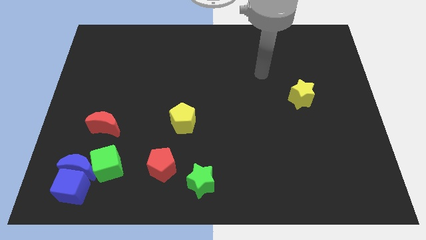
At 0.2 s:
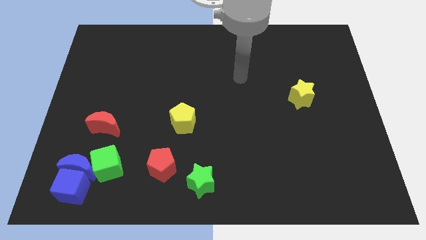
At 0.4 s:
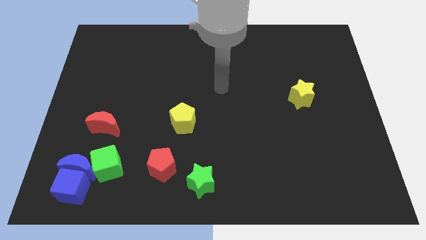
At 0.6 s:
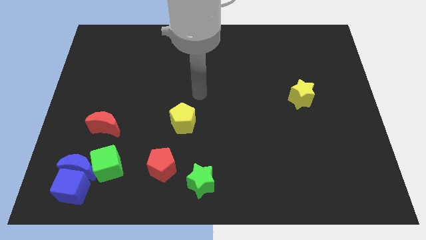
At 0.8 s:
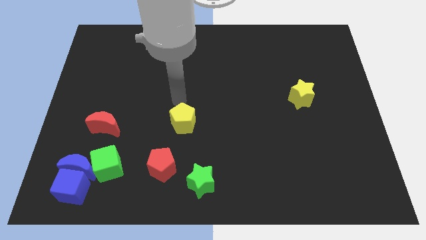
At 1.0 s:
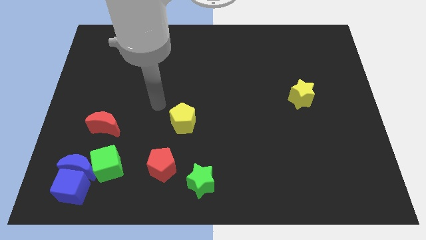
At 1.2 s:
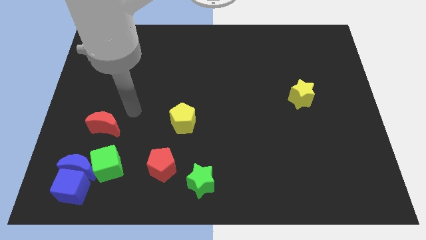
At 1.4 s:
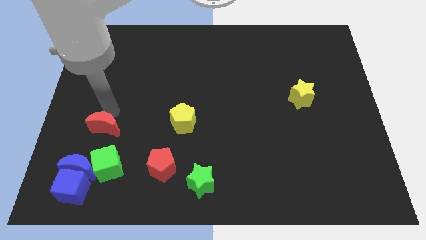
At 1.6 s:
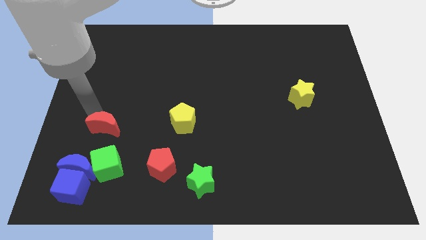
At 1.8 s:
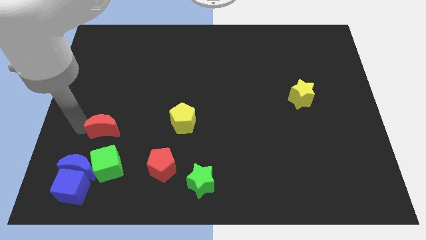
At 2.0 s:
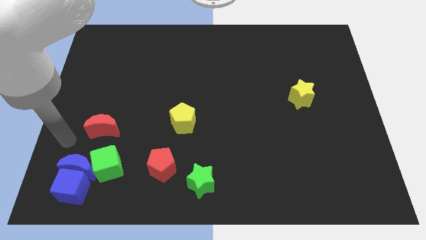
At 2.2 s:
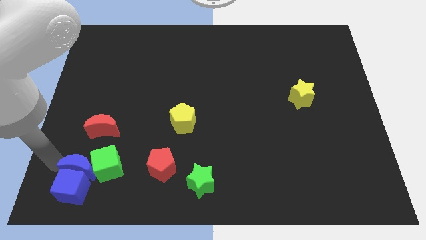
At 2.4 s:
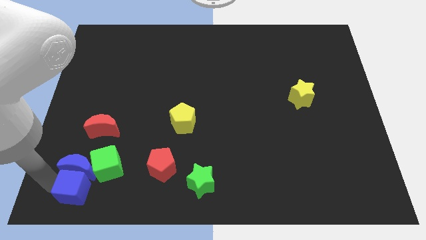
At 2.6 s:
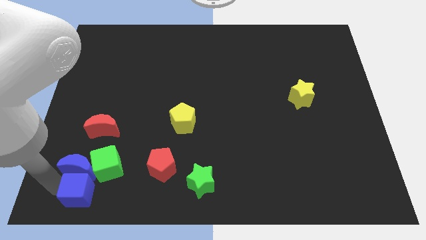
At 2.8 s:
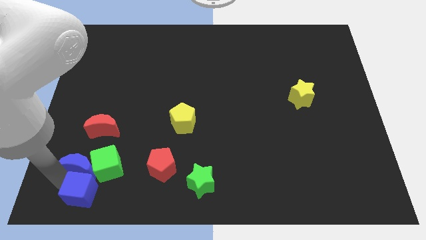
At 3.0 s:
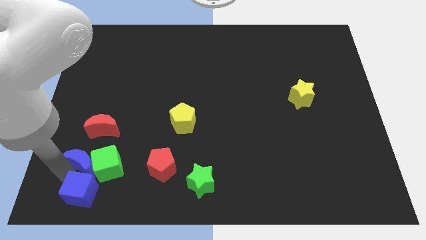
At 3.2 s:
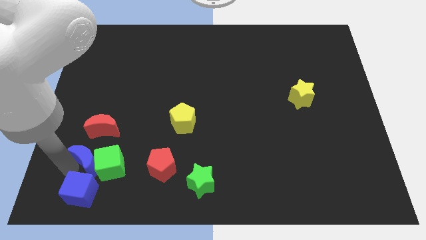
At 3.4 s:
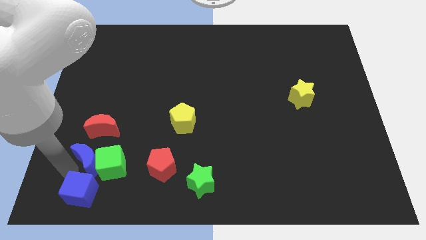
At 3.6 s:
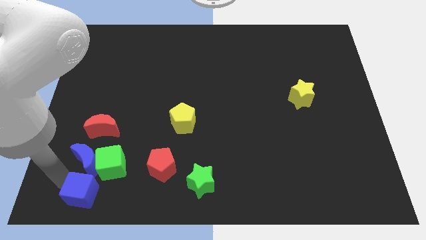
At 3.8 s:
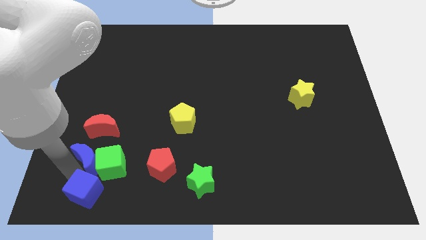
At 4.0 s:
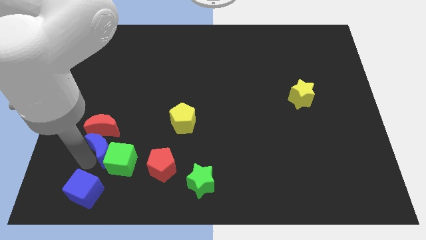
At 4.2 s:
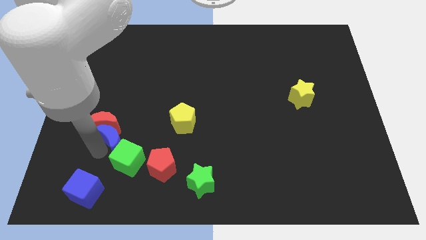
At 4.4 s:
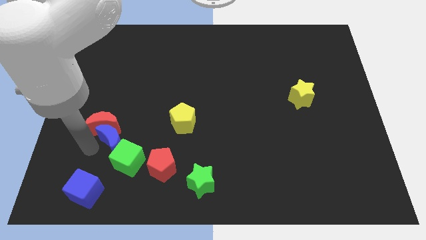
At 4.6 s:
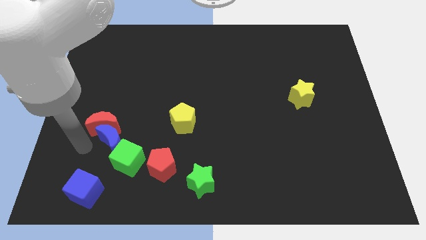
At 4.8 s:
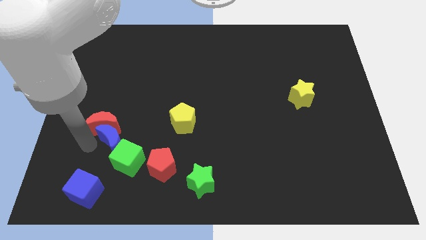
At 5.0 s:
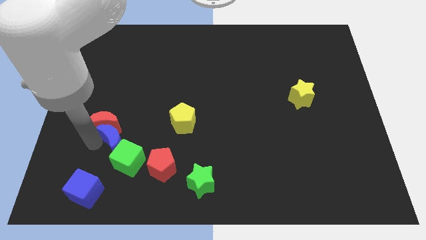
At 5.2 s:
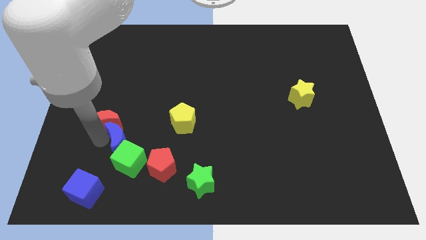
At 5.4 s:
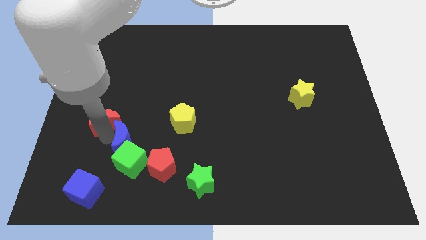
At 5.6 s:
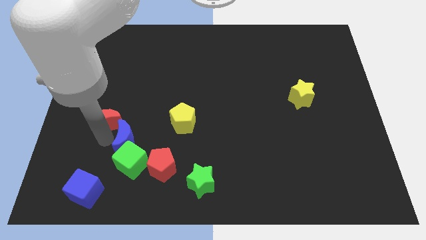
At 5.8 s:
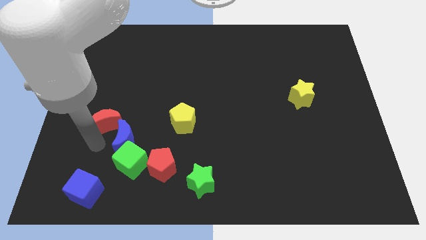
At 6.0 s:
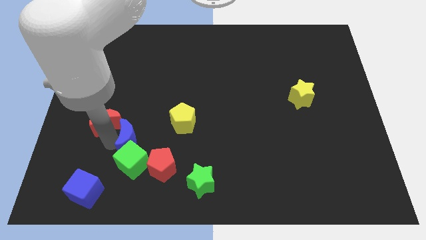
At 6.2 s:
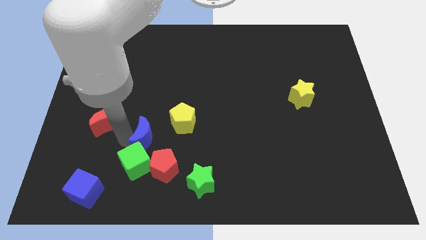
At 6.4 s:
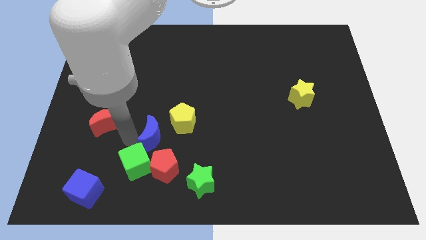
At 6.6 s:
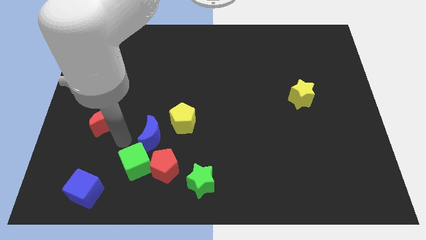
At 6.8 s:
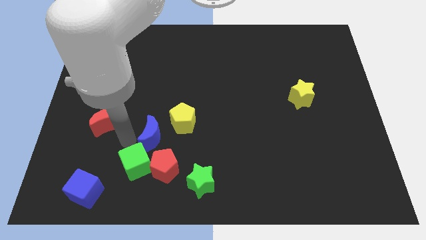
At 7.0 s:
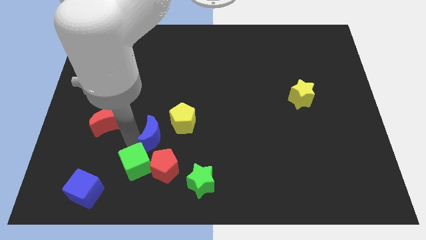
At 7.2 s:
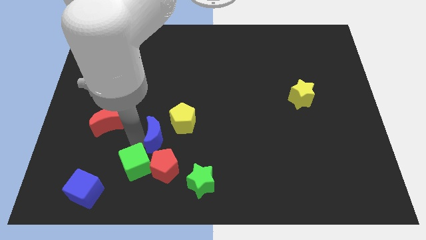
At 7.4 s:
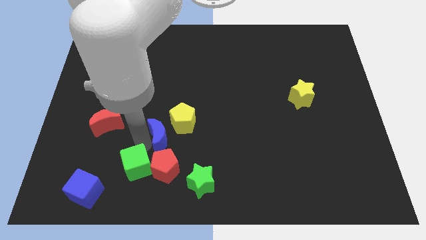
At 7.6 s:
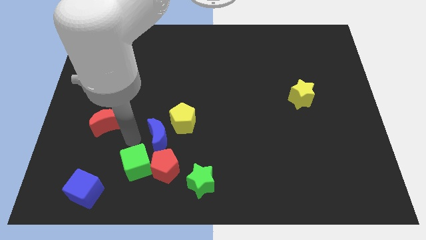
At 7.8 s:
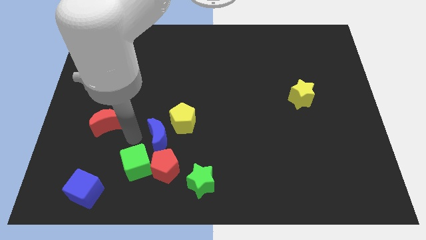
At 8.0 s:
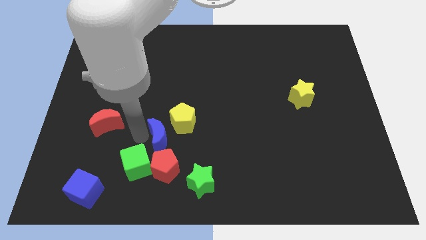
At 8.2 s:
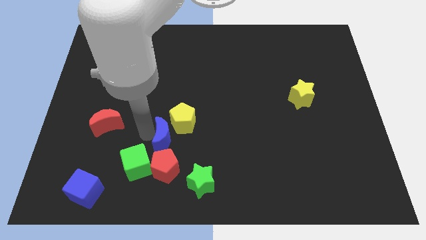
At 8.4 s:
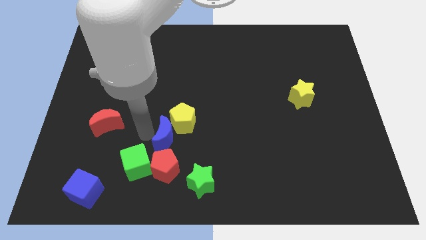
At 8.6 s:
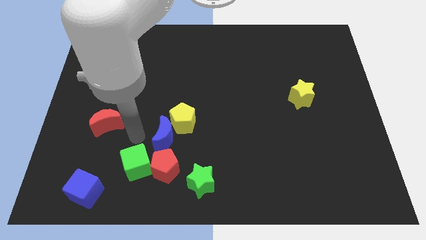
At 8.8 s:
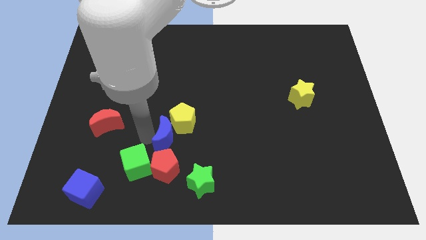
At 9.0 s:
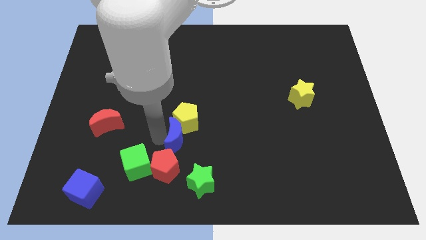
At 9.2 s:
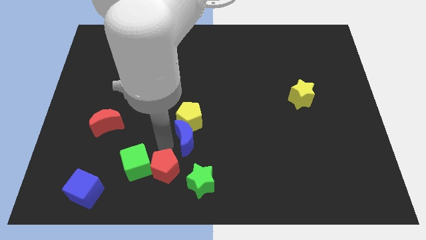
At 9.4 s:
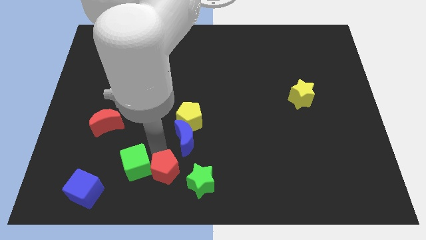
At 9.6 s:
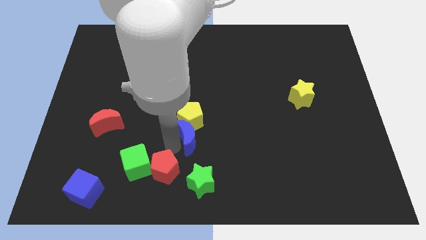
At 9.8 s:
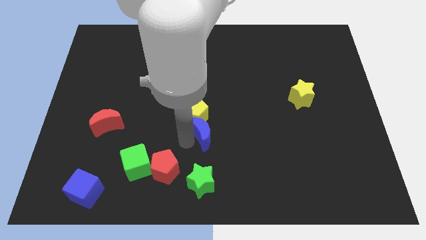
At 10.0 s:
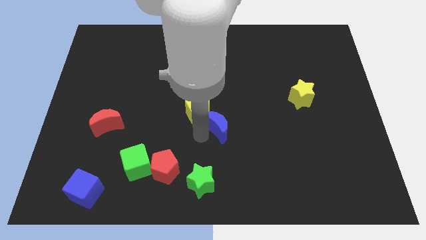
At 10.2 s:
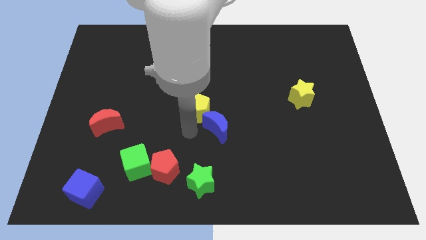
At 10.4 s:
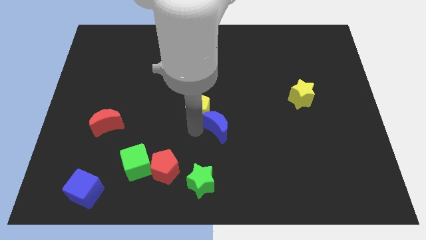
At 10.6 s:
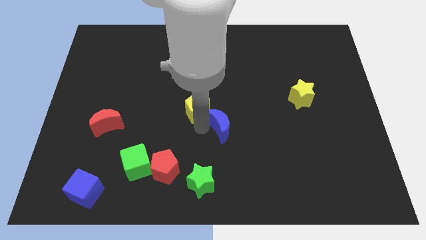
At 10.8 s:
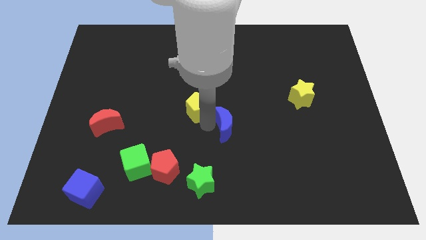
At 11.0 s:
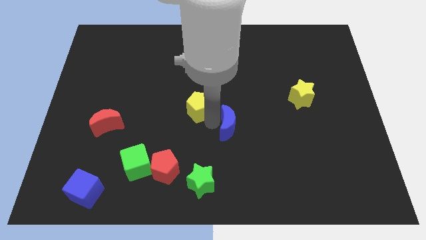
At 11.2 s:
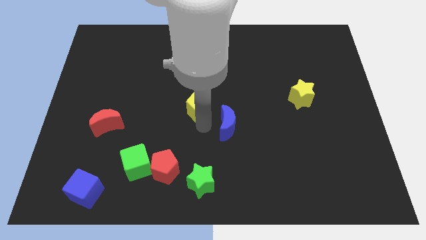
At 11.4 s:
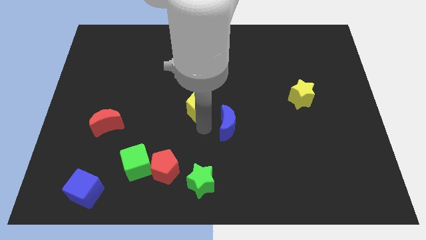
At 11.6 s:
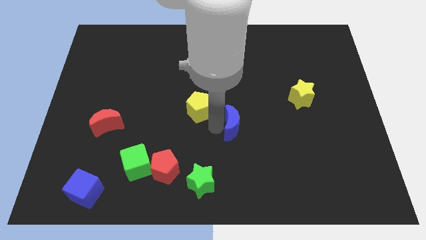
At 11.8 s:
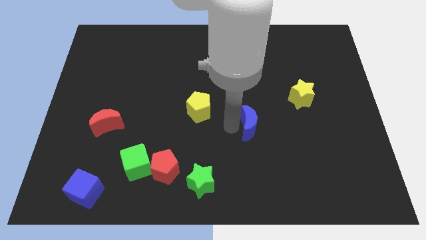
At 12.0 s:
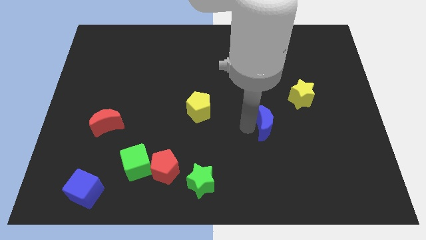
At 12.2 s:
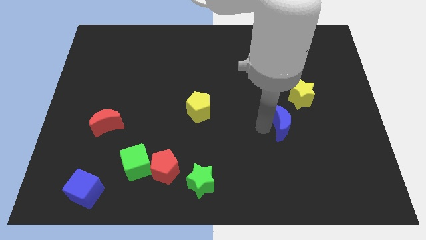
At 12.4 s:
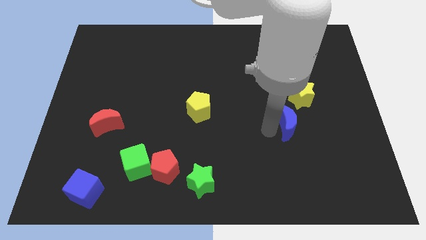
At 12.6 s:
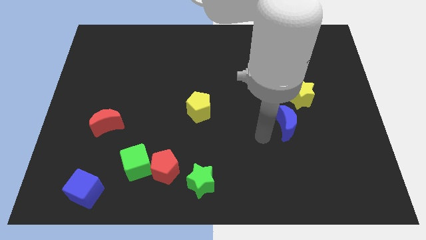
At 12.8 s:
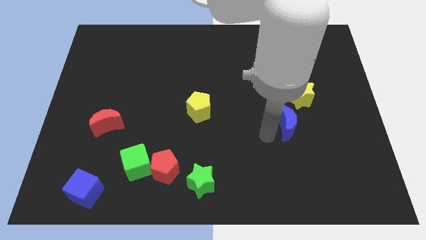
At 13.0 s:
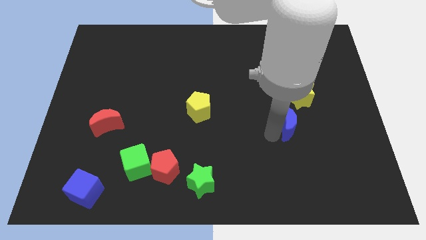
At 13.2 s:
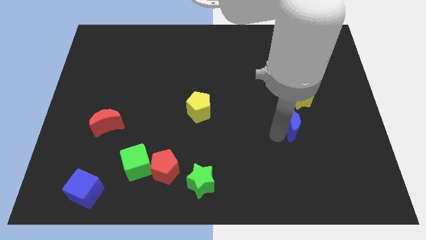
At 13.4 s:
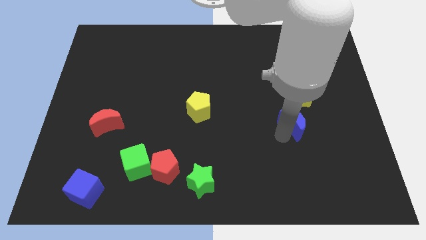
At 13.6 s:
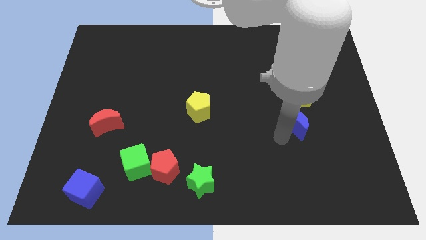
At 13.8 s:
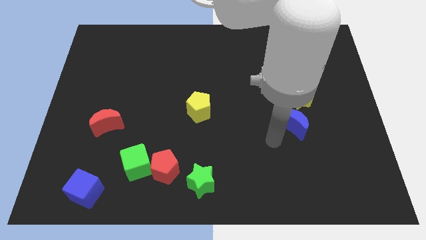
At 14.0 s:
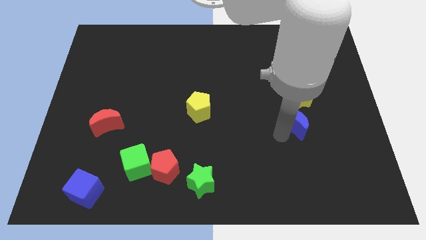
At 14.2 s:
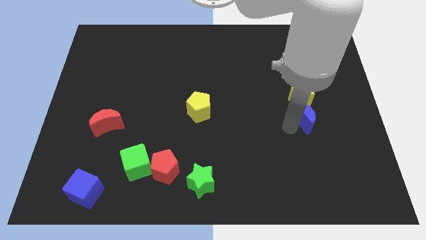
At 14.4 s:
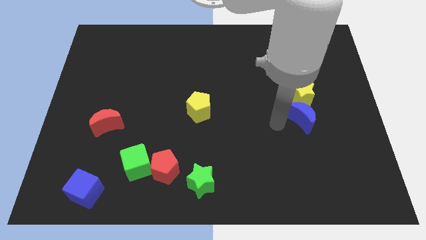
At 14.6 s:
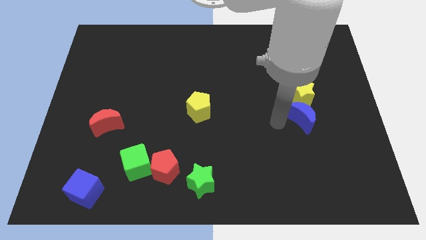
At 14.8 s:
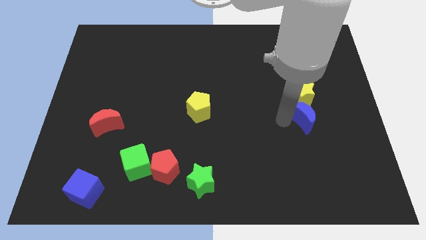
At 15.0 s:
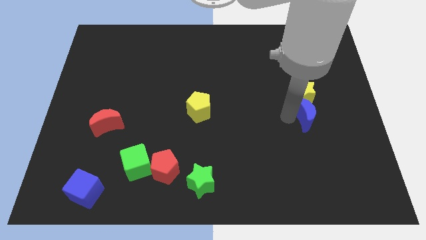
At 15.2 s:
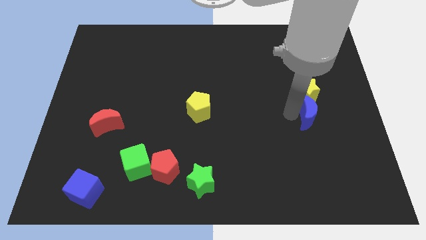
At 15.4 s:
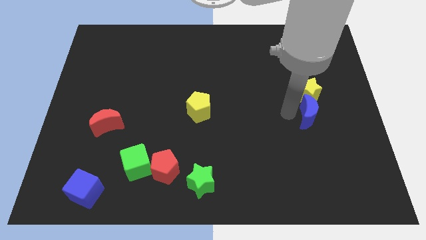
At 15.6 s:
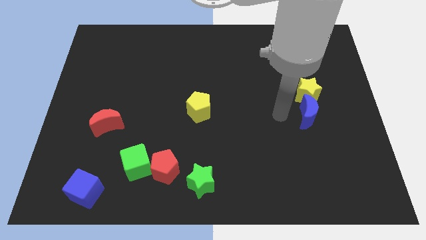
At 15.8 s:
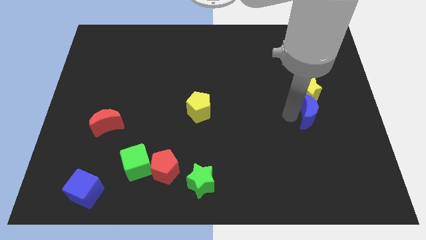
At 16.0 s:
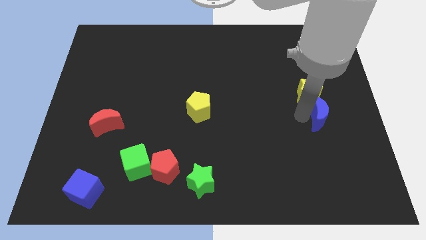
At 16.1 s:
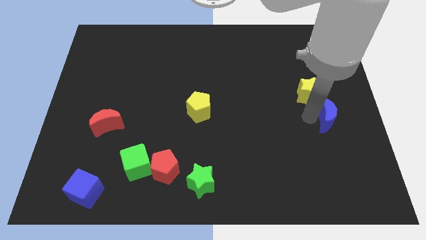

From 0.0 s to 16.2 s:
put the blue moon to the right side of the board
